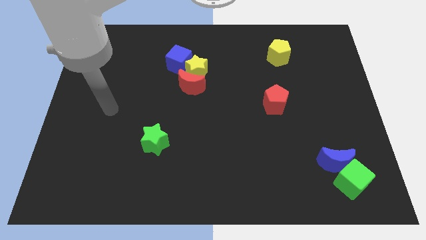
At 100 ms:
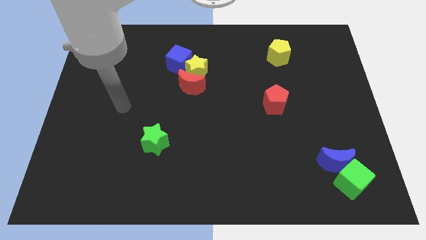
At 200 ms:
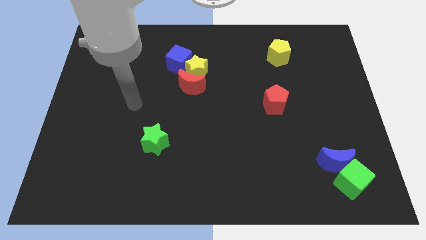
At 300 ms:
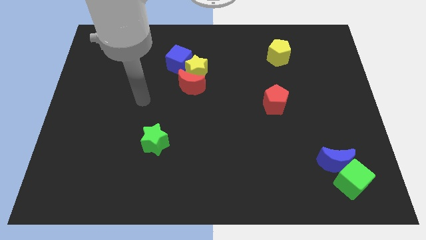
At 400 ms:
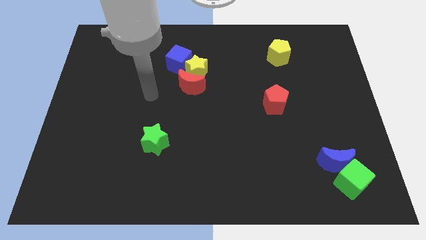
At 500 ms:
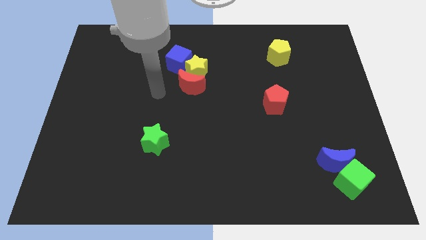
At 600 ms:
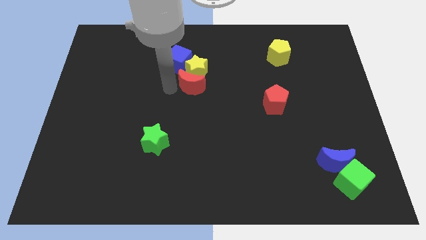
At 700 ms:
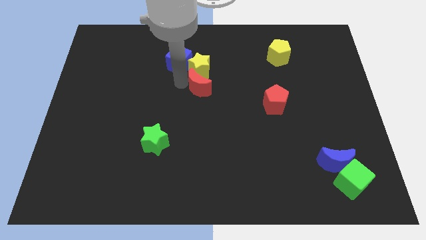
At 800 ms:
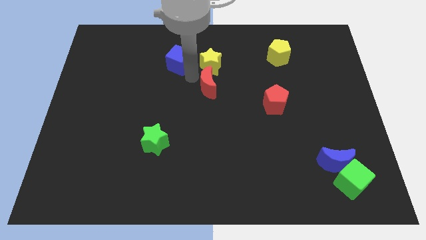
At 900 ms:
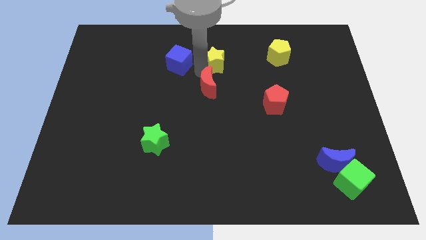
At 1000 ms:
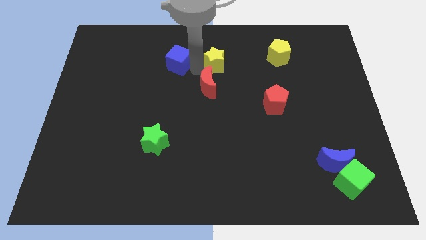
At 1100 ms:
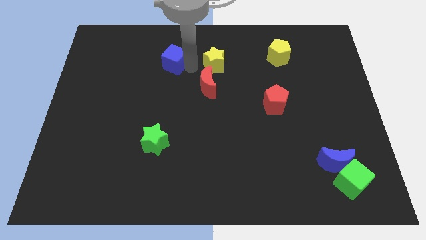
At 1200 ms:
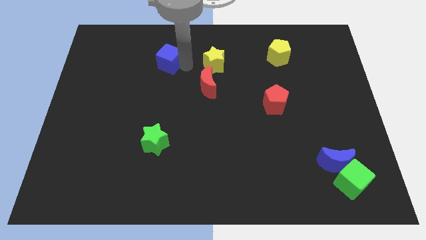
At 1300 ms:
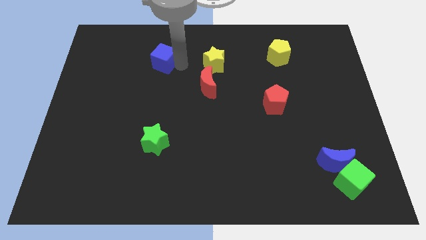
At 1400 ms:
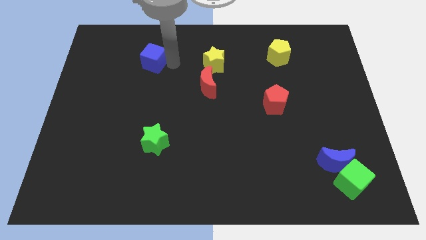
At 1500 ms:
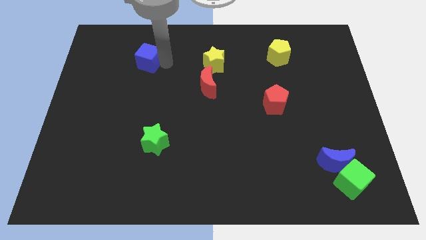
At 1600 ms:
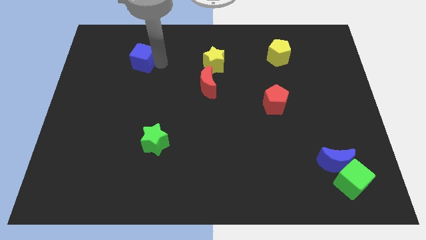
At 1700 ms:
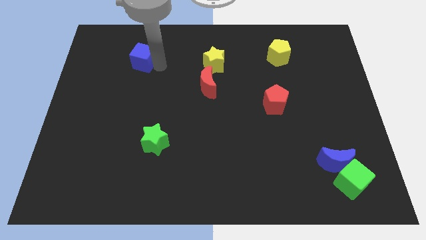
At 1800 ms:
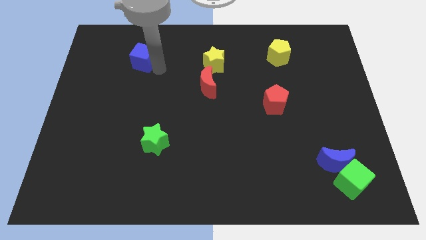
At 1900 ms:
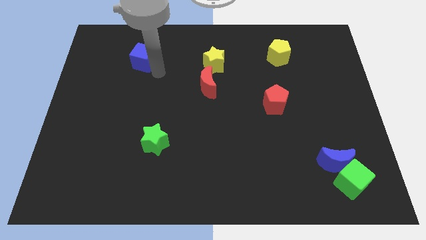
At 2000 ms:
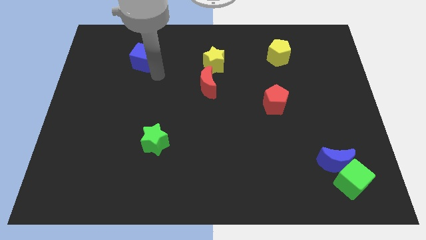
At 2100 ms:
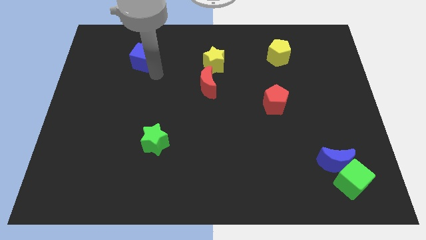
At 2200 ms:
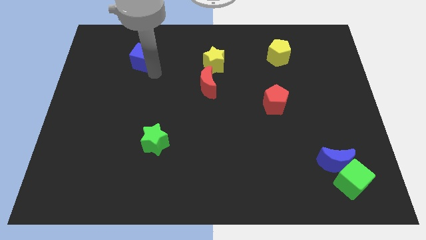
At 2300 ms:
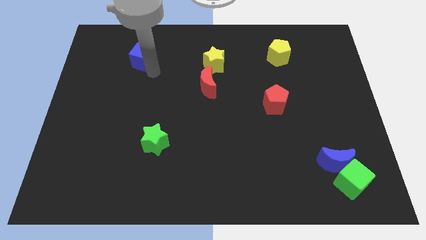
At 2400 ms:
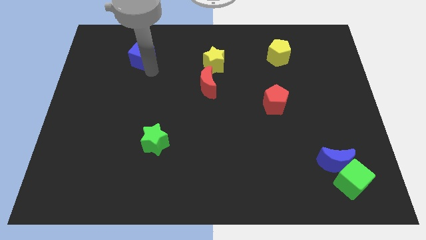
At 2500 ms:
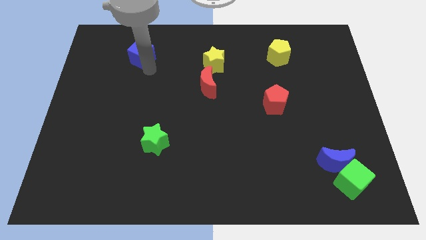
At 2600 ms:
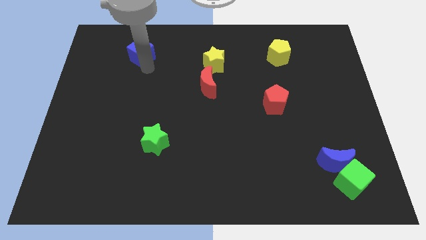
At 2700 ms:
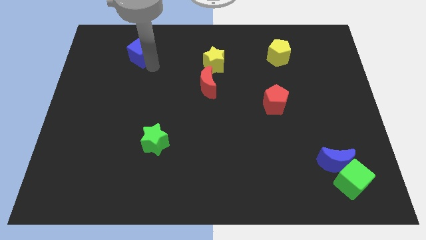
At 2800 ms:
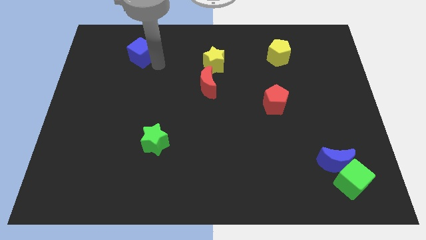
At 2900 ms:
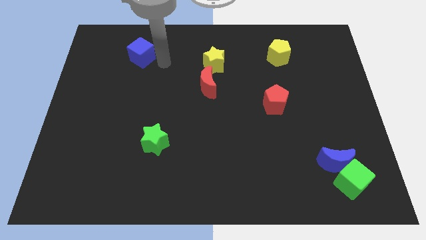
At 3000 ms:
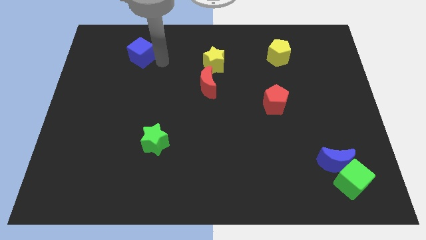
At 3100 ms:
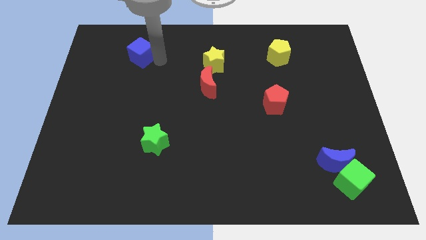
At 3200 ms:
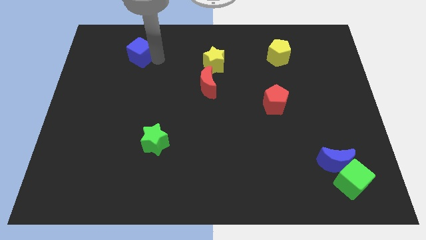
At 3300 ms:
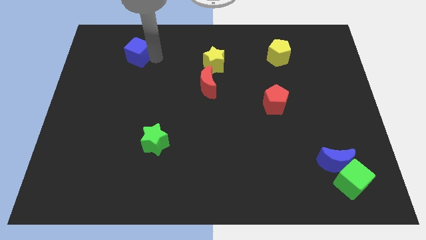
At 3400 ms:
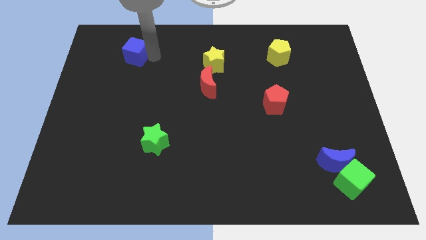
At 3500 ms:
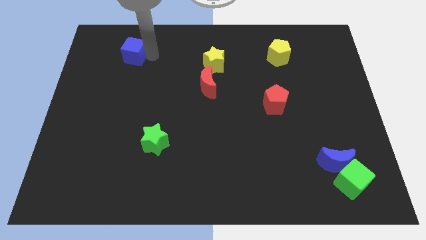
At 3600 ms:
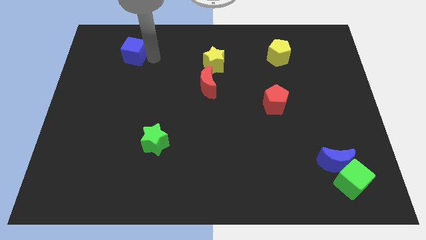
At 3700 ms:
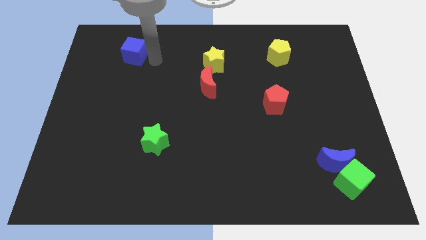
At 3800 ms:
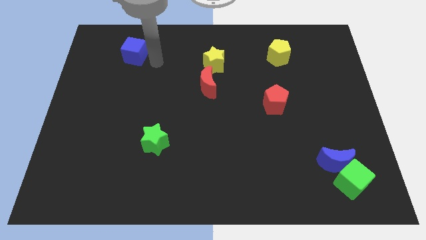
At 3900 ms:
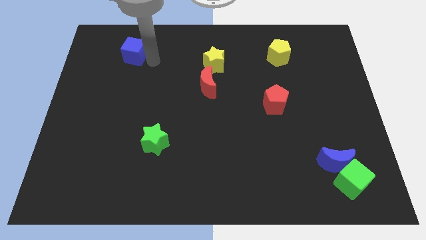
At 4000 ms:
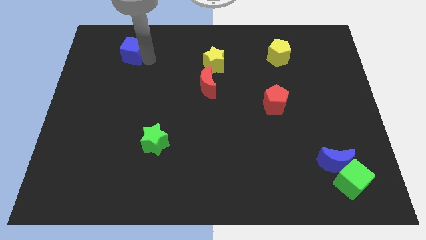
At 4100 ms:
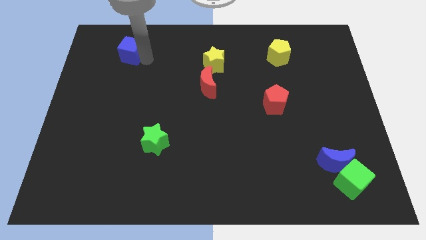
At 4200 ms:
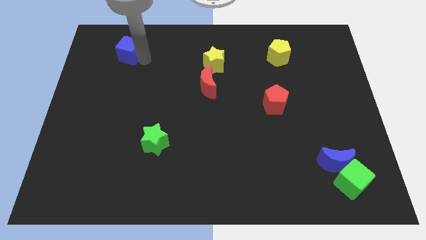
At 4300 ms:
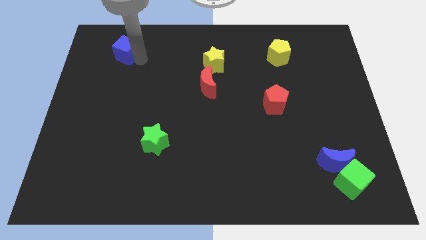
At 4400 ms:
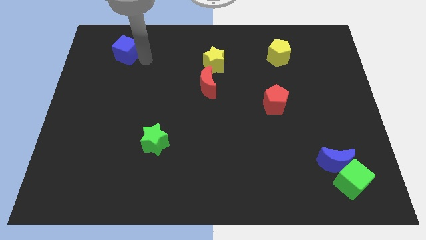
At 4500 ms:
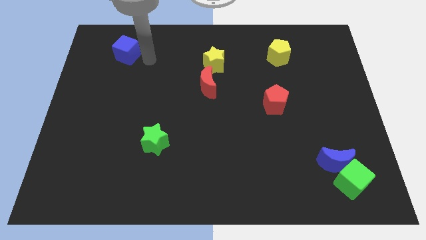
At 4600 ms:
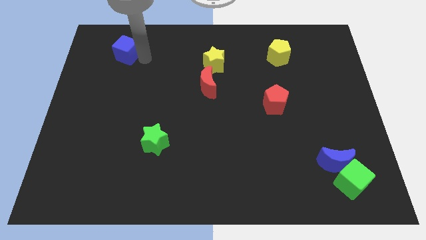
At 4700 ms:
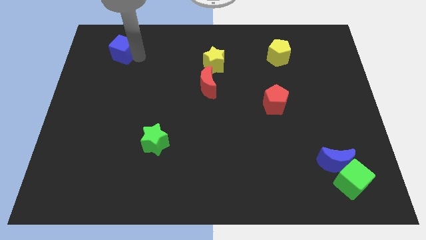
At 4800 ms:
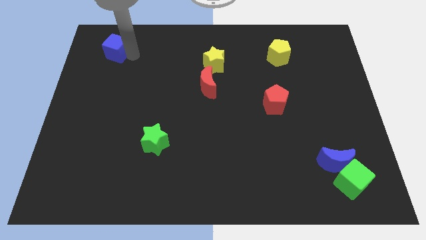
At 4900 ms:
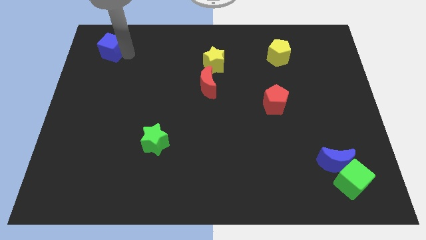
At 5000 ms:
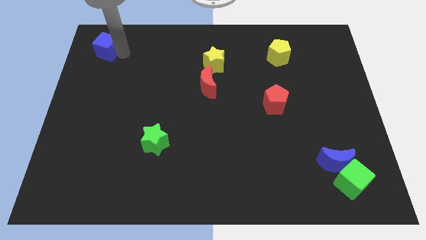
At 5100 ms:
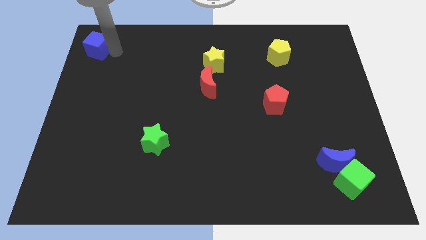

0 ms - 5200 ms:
put the blue cube to the top left
